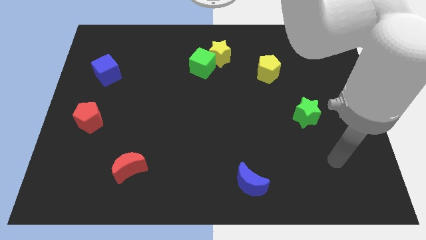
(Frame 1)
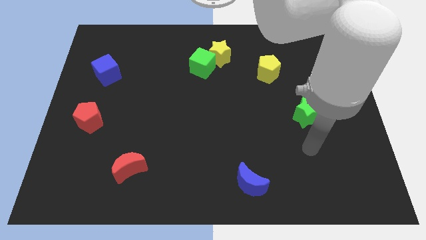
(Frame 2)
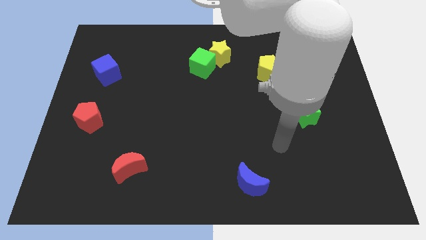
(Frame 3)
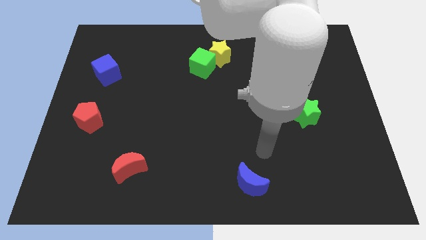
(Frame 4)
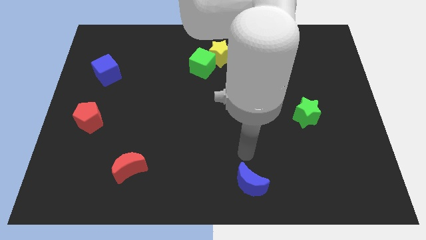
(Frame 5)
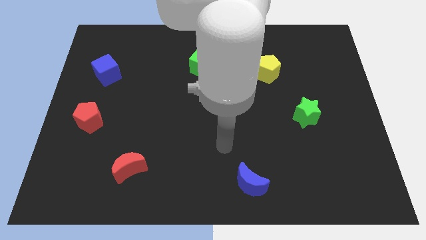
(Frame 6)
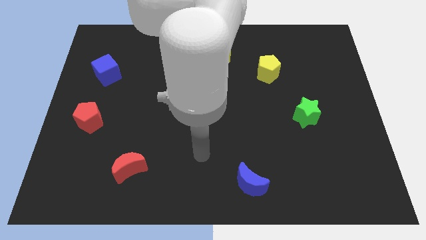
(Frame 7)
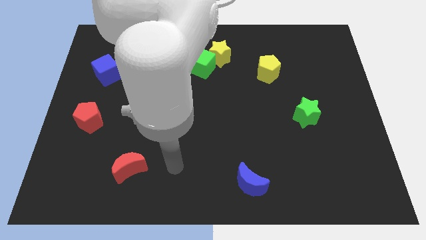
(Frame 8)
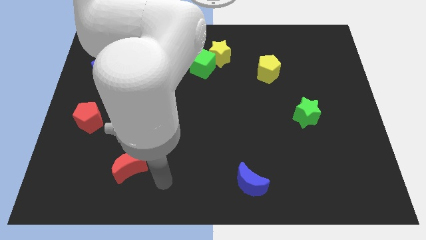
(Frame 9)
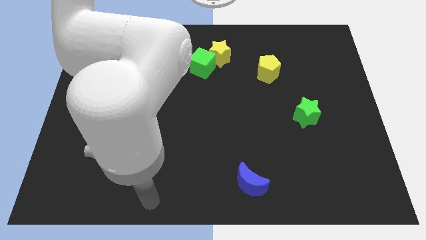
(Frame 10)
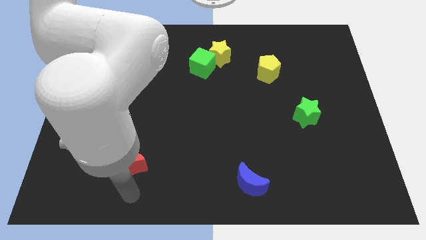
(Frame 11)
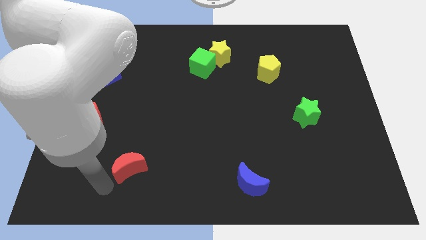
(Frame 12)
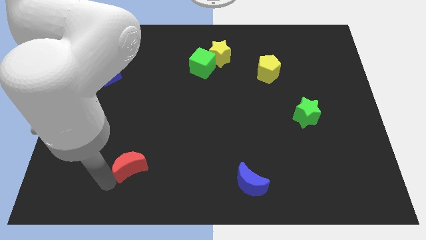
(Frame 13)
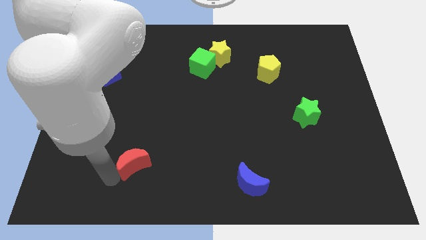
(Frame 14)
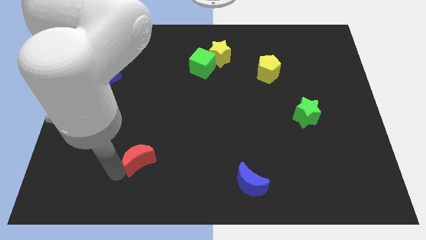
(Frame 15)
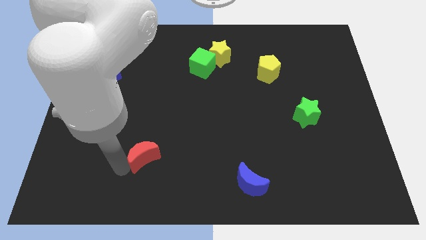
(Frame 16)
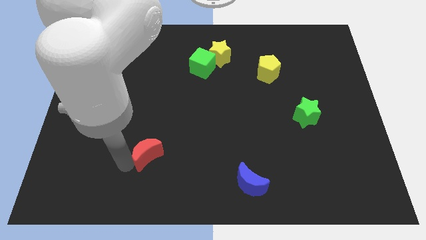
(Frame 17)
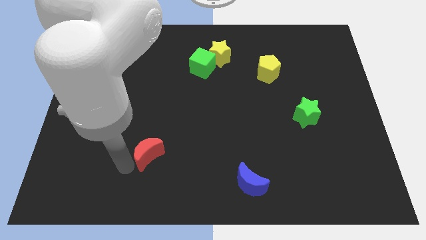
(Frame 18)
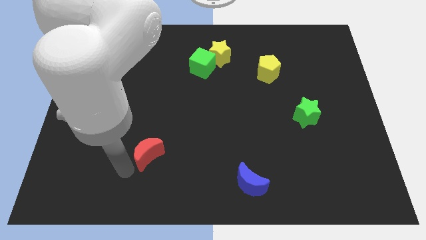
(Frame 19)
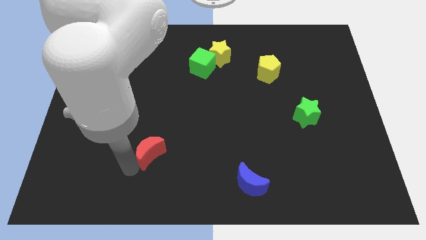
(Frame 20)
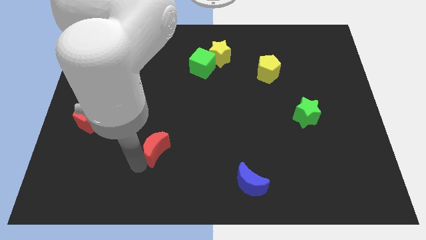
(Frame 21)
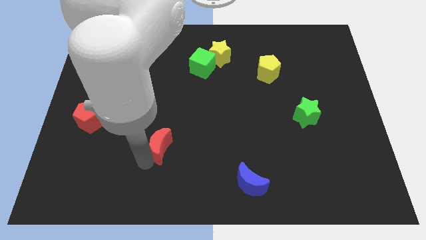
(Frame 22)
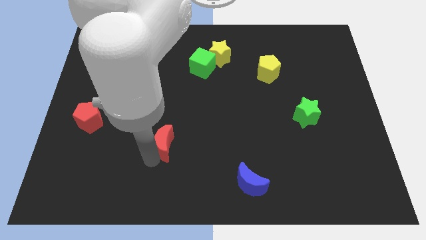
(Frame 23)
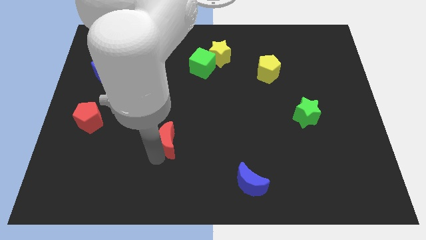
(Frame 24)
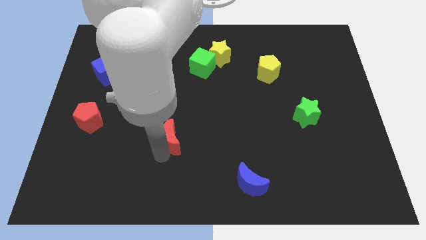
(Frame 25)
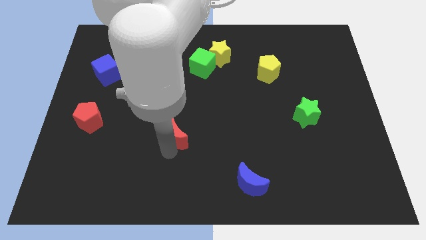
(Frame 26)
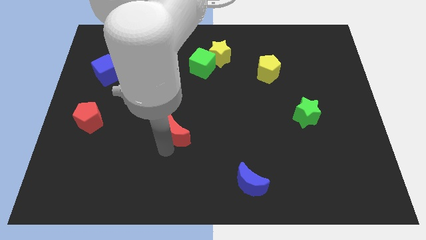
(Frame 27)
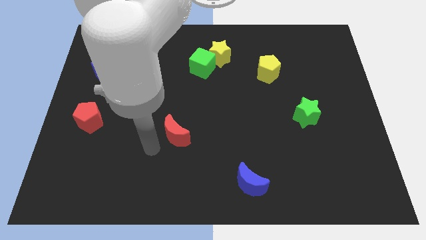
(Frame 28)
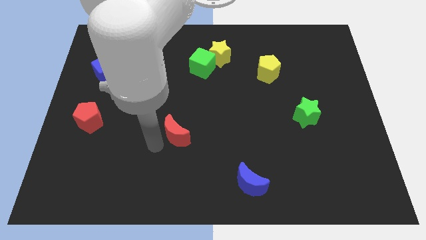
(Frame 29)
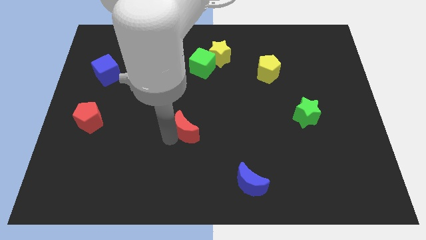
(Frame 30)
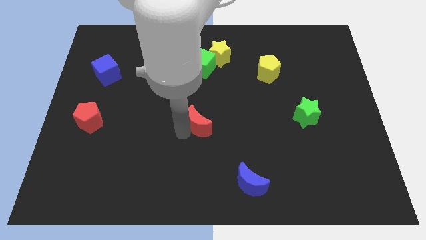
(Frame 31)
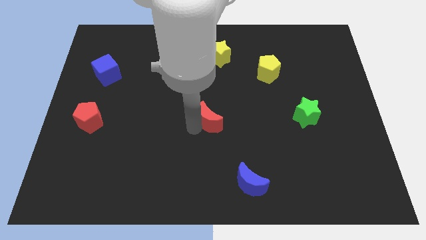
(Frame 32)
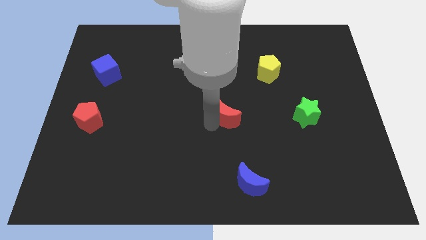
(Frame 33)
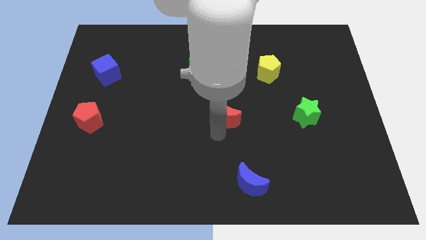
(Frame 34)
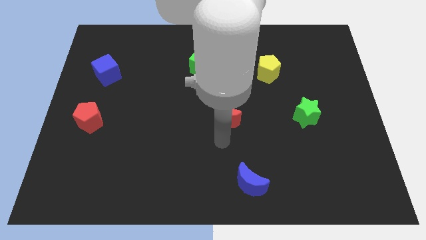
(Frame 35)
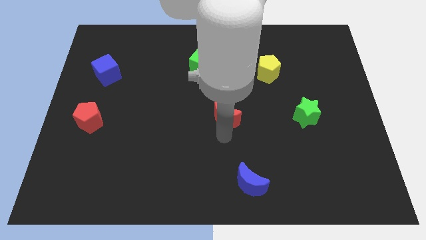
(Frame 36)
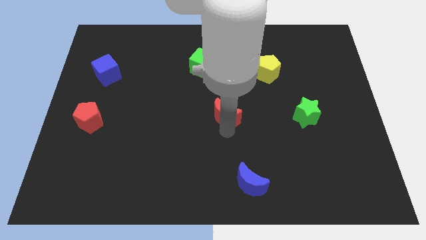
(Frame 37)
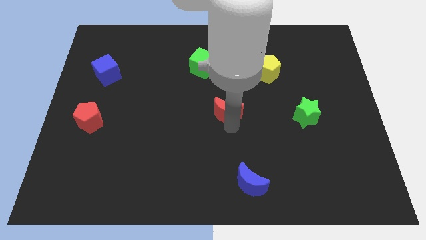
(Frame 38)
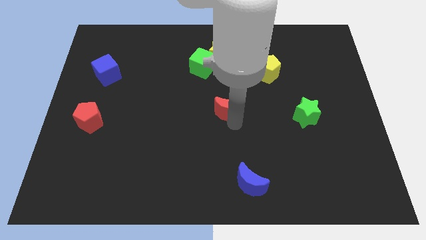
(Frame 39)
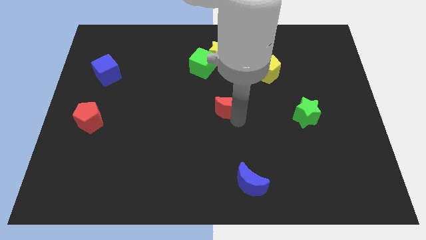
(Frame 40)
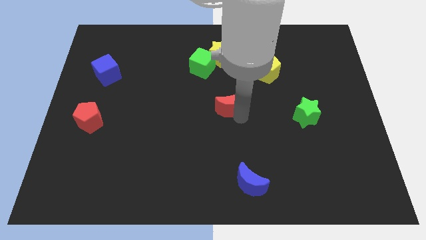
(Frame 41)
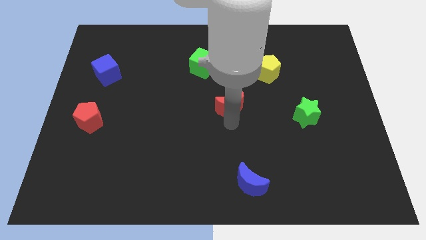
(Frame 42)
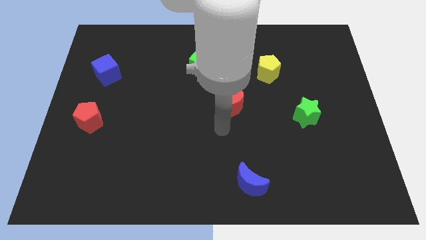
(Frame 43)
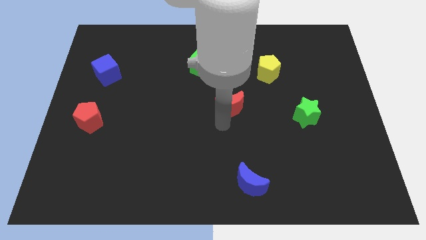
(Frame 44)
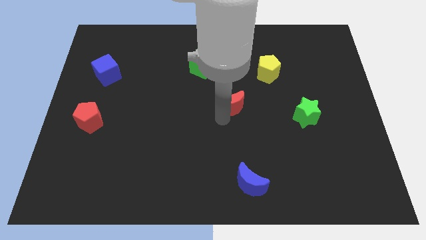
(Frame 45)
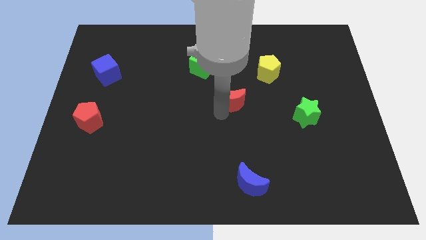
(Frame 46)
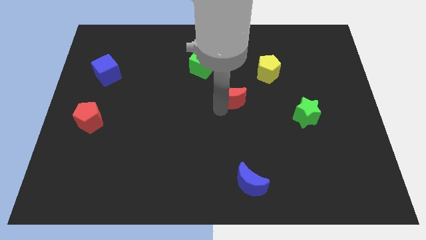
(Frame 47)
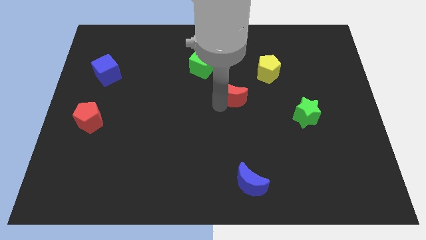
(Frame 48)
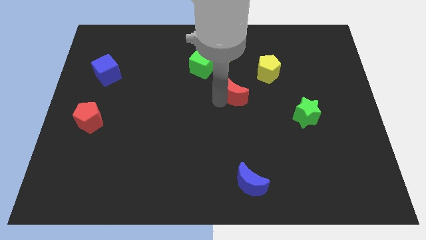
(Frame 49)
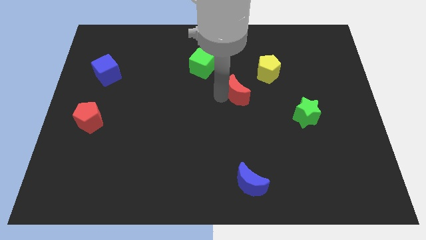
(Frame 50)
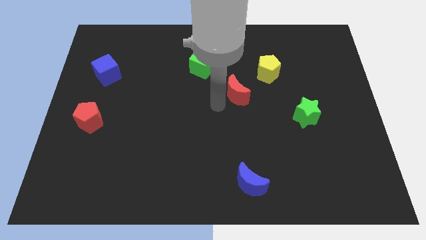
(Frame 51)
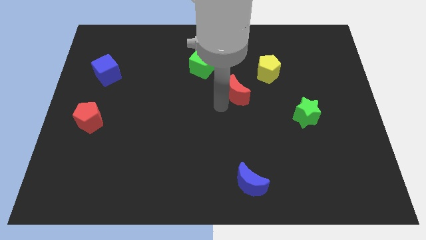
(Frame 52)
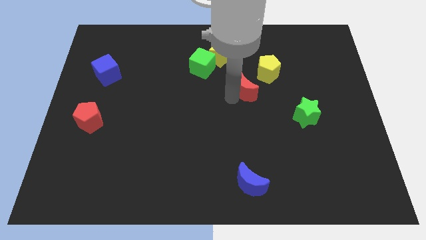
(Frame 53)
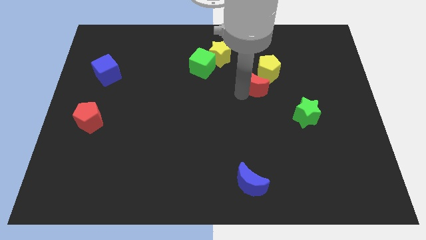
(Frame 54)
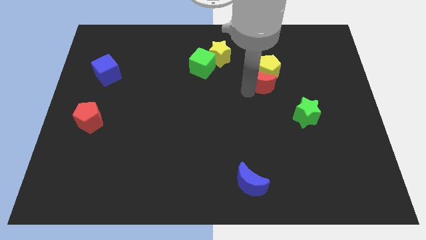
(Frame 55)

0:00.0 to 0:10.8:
slide the red moon next to the yellow pentagon

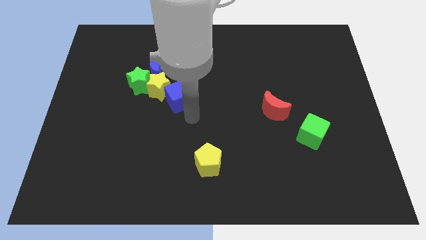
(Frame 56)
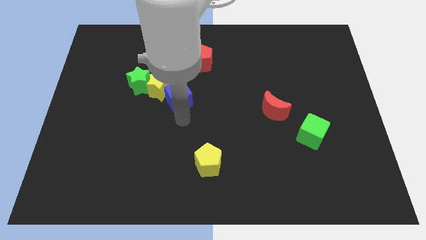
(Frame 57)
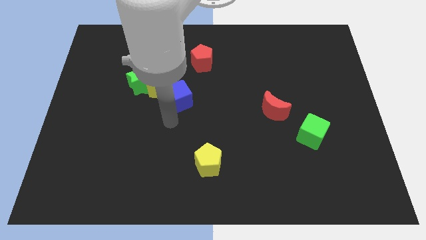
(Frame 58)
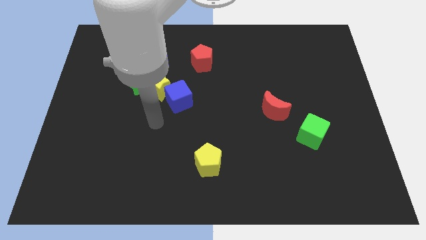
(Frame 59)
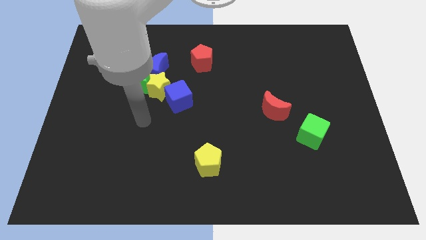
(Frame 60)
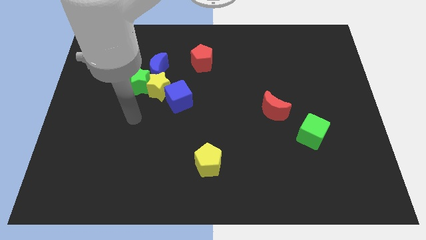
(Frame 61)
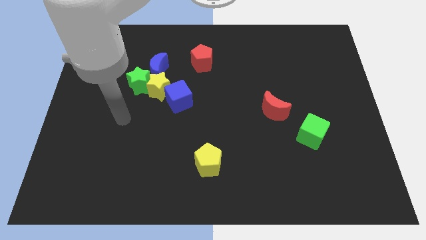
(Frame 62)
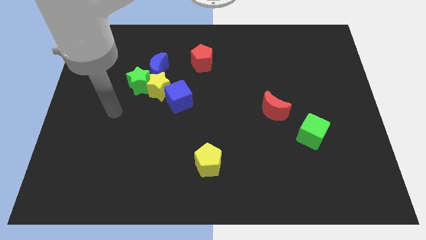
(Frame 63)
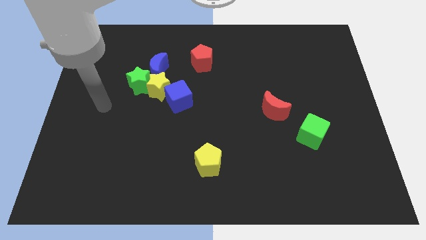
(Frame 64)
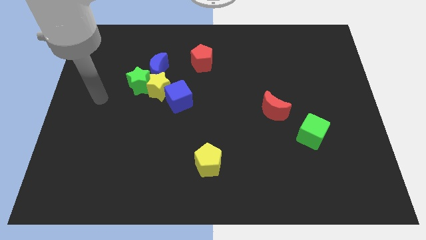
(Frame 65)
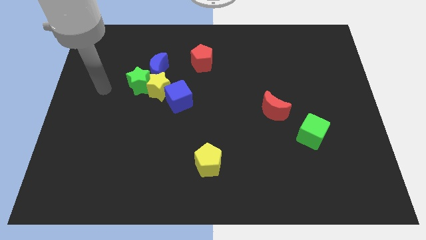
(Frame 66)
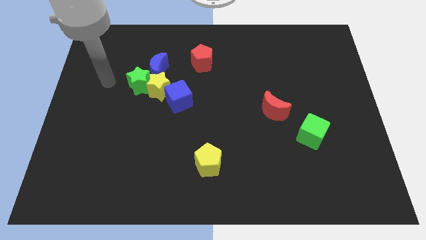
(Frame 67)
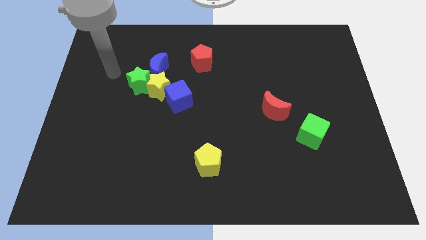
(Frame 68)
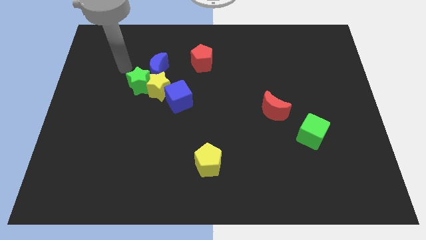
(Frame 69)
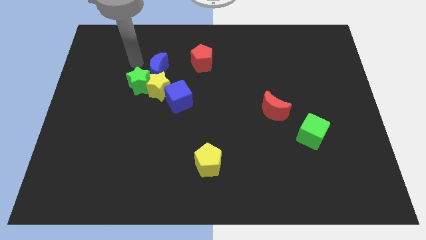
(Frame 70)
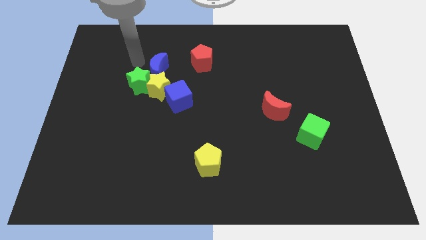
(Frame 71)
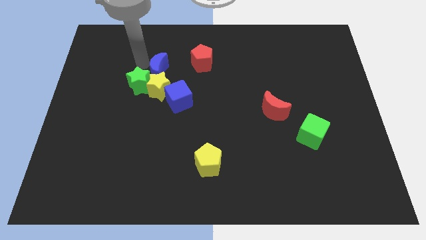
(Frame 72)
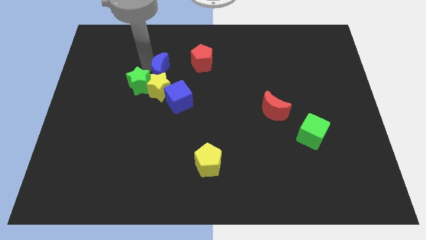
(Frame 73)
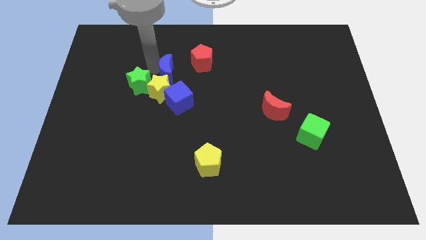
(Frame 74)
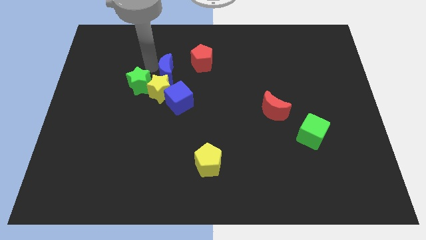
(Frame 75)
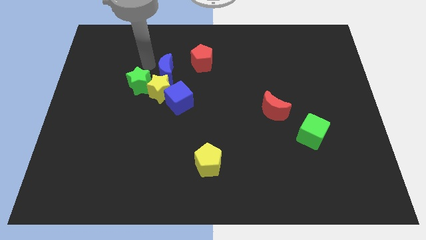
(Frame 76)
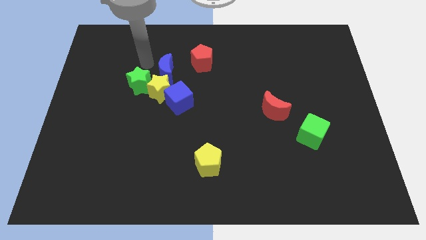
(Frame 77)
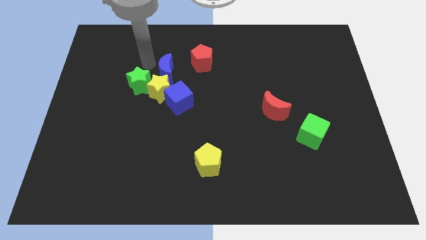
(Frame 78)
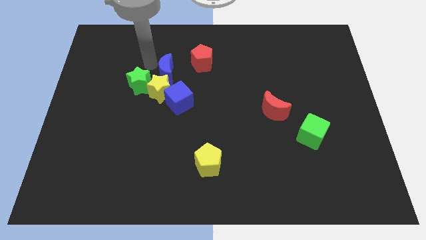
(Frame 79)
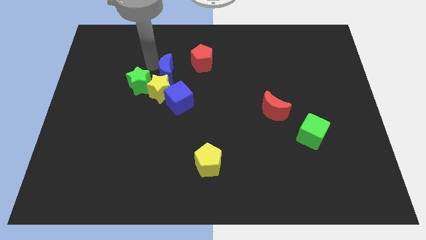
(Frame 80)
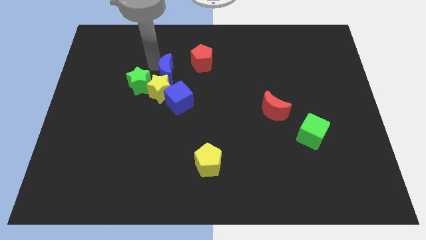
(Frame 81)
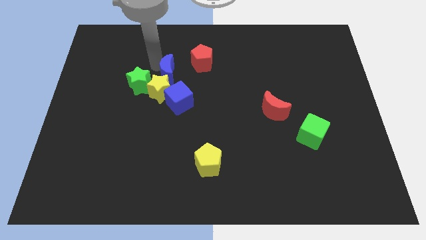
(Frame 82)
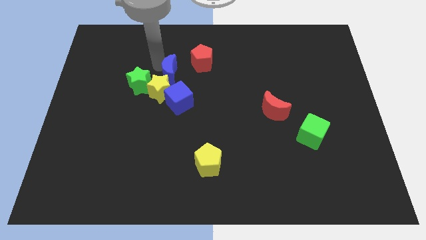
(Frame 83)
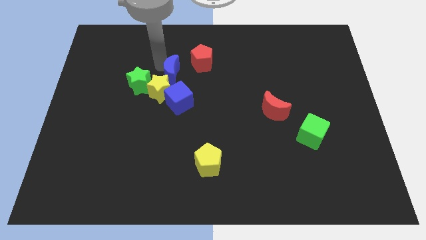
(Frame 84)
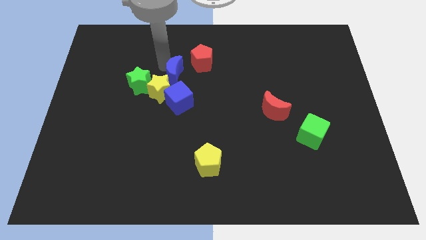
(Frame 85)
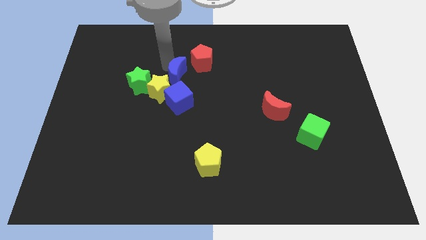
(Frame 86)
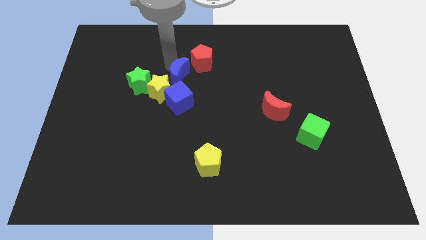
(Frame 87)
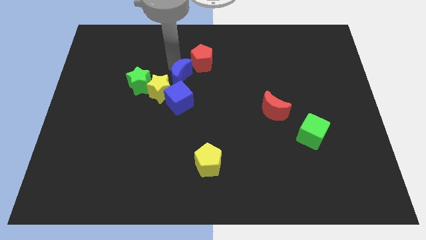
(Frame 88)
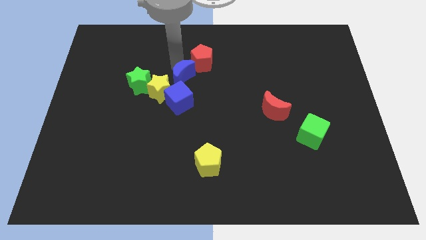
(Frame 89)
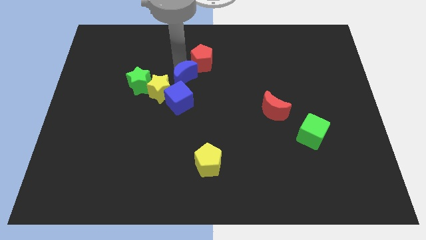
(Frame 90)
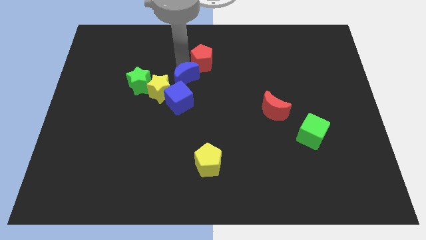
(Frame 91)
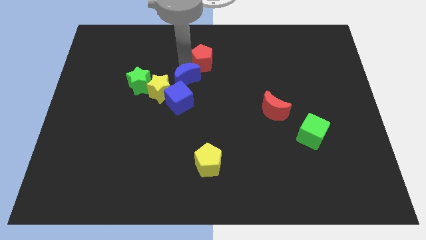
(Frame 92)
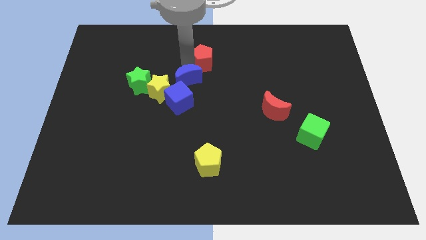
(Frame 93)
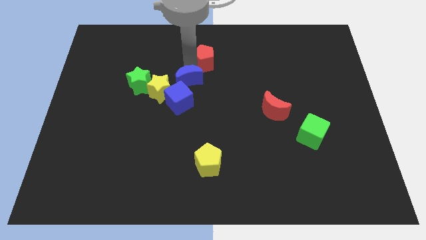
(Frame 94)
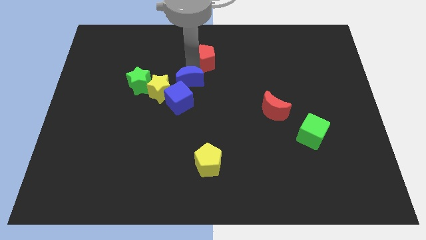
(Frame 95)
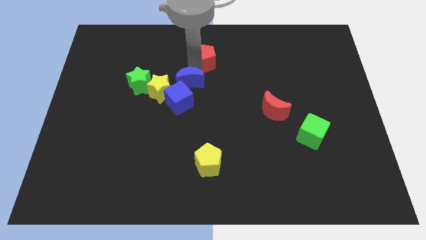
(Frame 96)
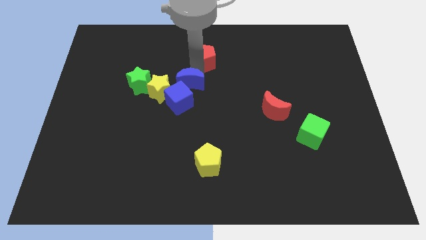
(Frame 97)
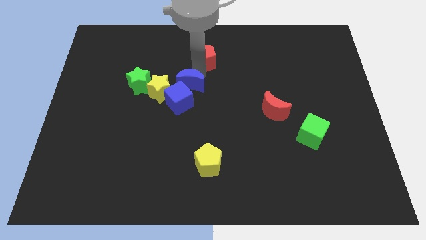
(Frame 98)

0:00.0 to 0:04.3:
slide the blue moon close to the blue cube
